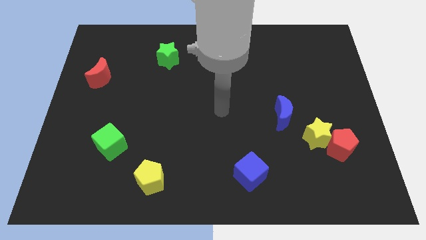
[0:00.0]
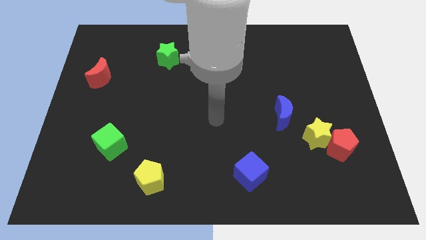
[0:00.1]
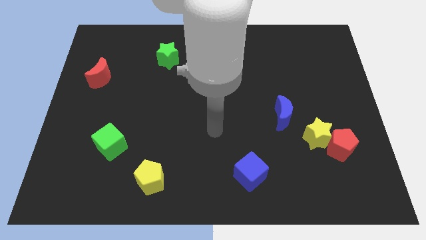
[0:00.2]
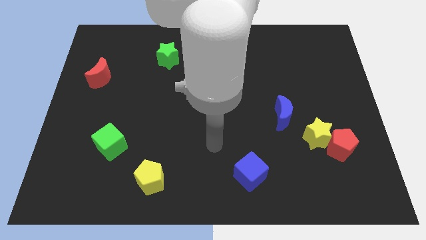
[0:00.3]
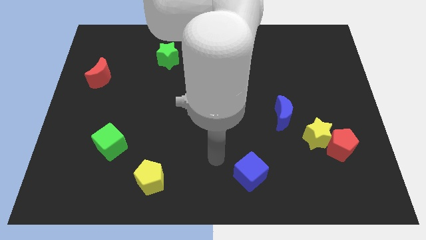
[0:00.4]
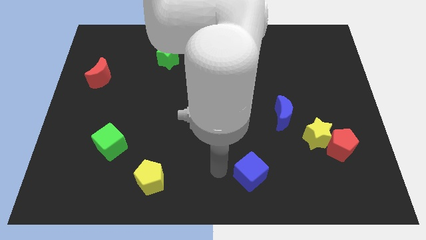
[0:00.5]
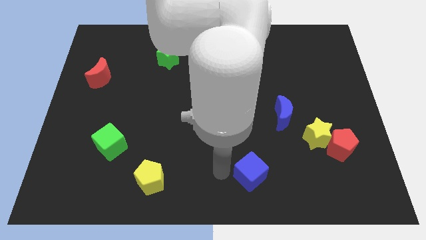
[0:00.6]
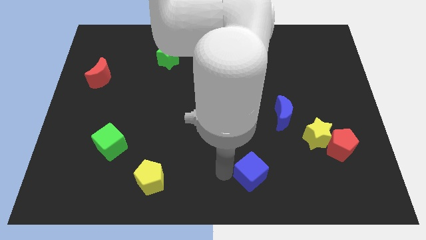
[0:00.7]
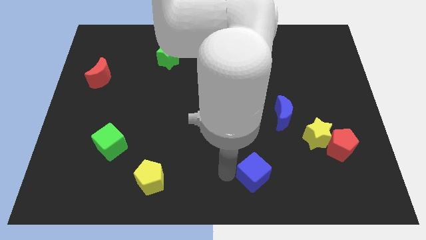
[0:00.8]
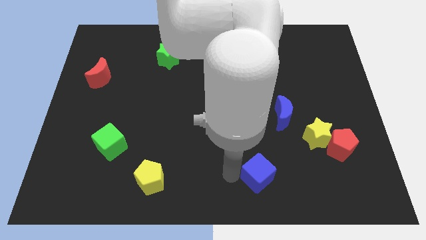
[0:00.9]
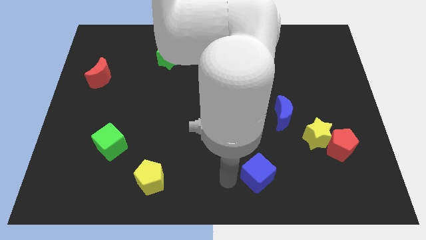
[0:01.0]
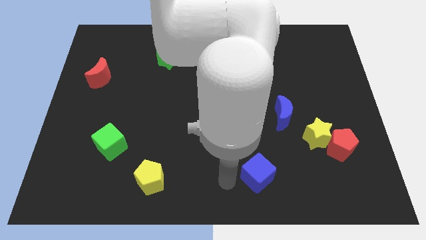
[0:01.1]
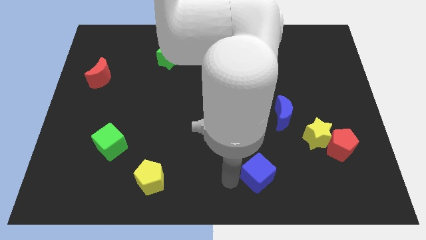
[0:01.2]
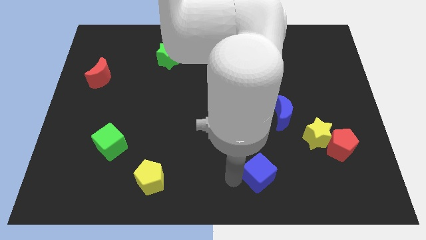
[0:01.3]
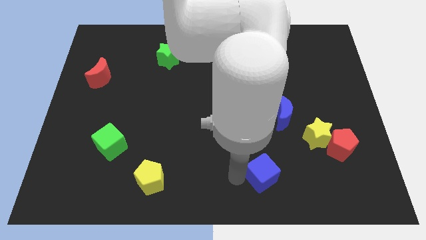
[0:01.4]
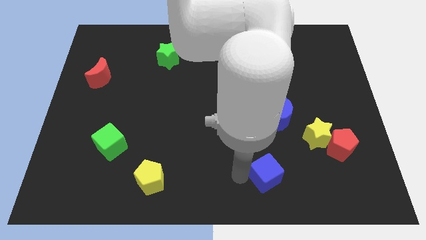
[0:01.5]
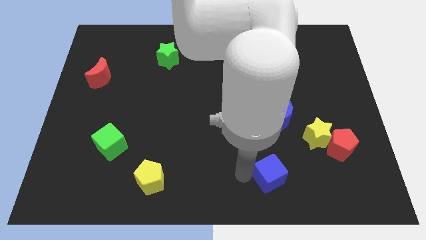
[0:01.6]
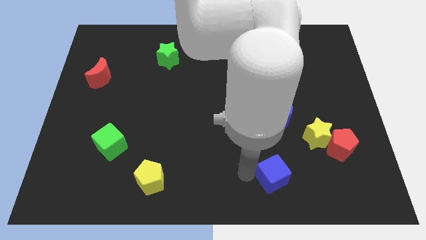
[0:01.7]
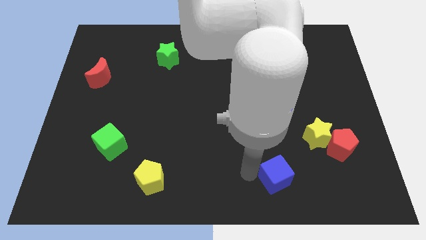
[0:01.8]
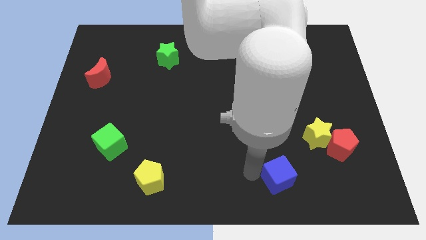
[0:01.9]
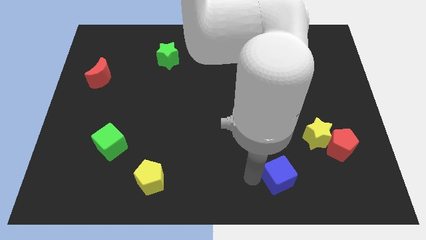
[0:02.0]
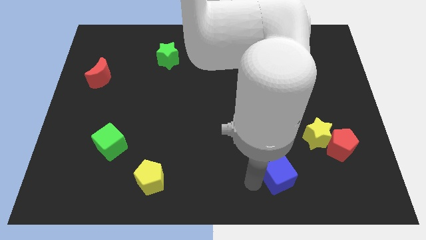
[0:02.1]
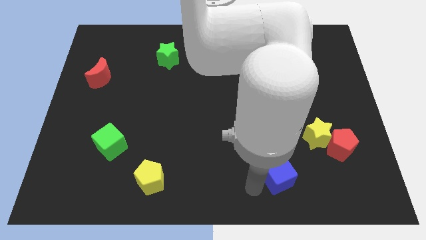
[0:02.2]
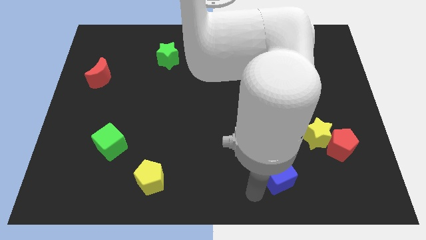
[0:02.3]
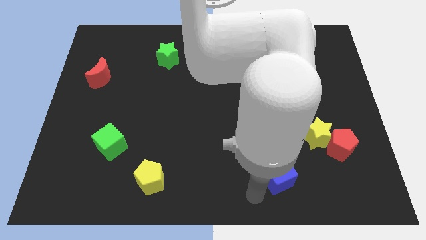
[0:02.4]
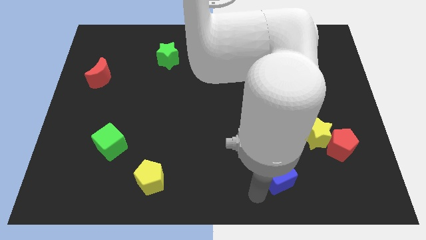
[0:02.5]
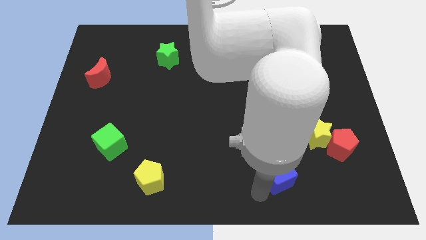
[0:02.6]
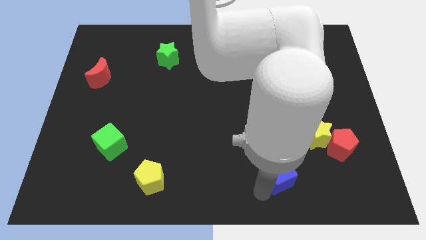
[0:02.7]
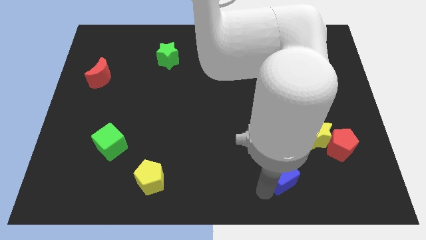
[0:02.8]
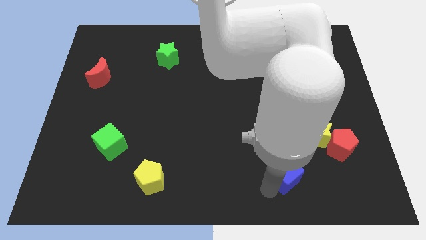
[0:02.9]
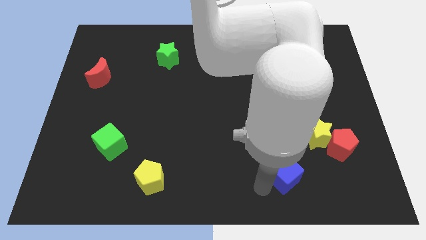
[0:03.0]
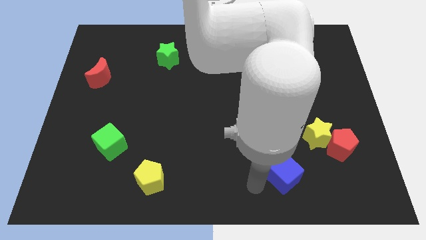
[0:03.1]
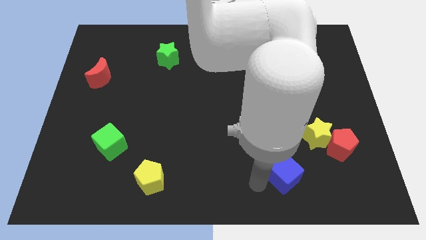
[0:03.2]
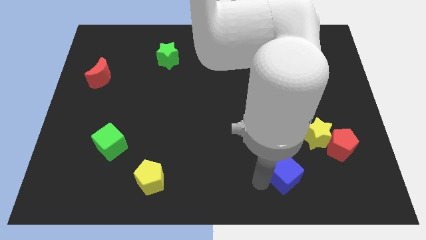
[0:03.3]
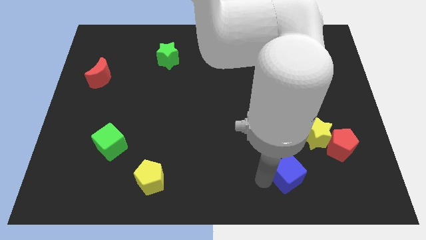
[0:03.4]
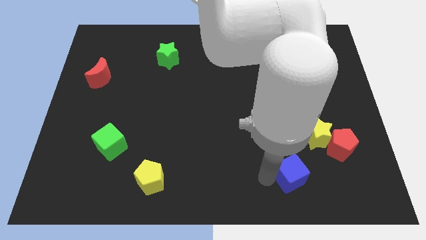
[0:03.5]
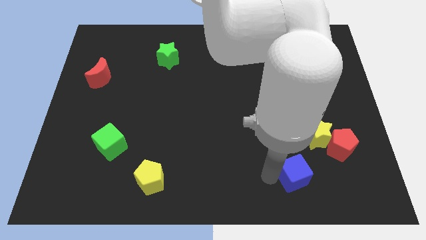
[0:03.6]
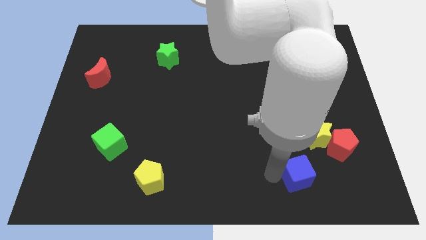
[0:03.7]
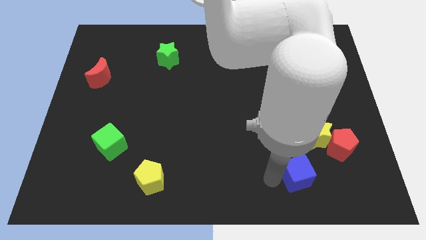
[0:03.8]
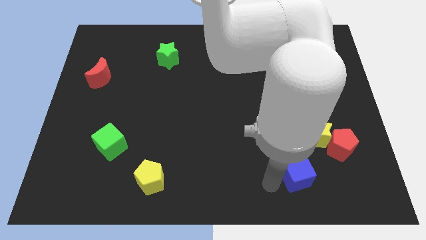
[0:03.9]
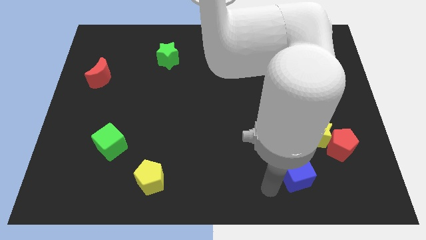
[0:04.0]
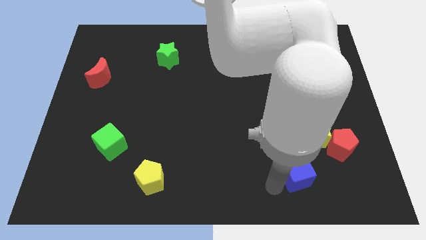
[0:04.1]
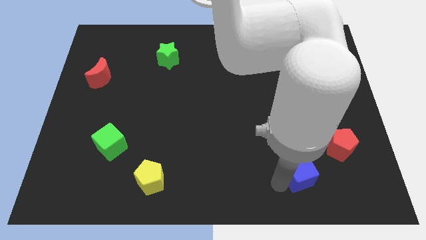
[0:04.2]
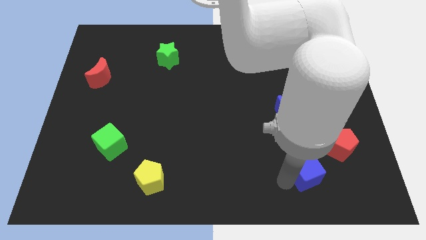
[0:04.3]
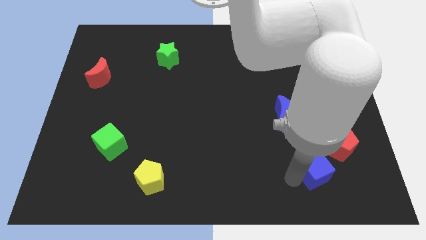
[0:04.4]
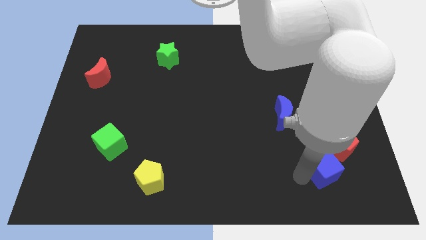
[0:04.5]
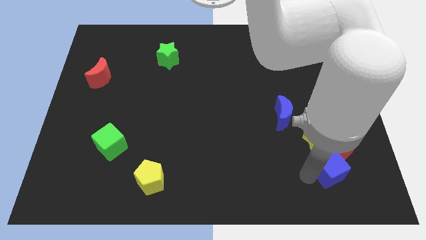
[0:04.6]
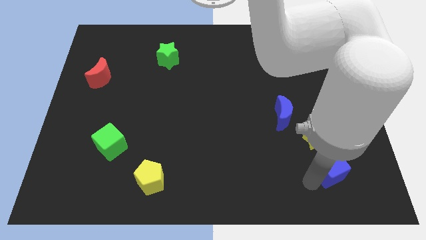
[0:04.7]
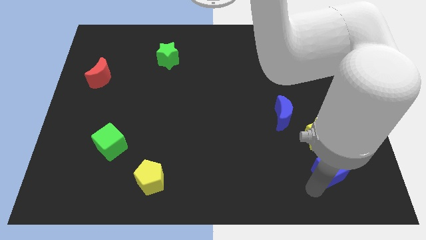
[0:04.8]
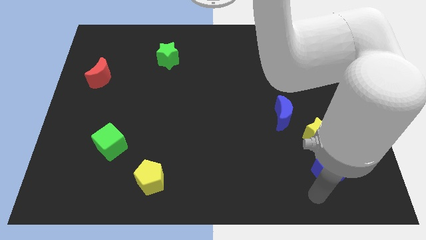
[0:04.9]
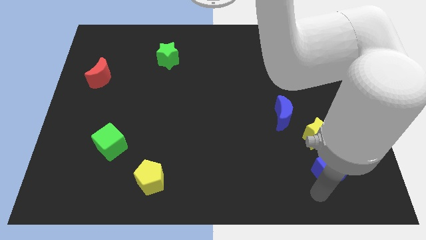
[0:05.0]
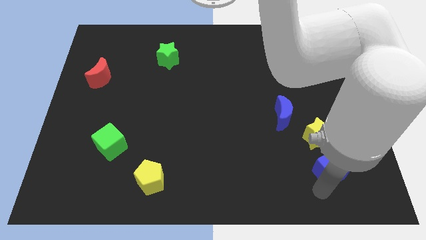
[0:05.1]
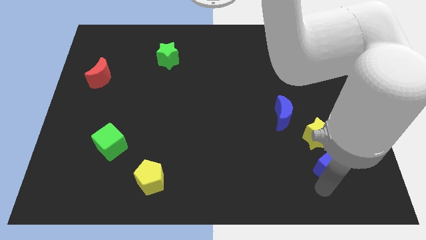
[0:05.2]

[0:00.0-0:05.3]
slide the blue cube towards the red pentagon

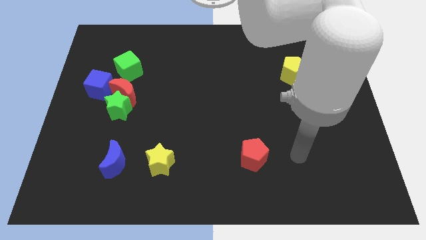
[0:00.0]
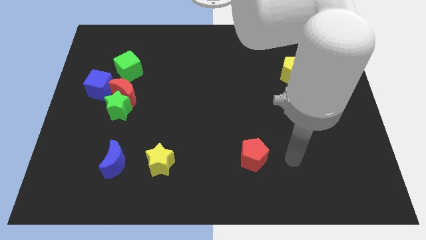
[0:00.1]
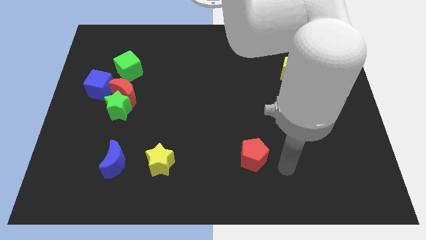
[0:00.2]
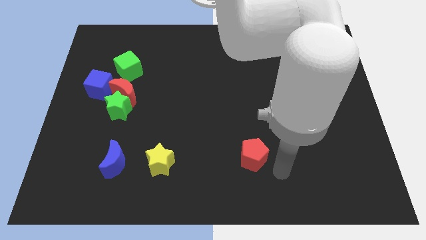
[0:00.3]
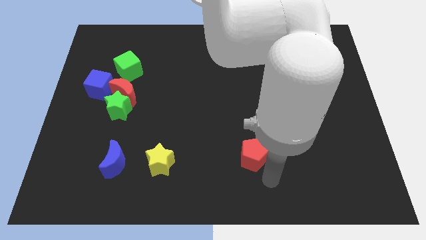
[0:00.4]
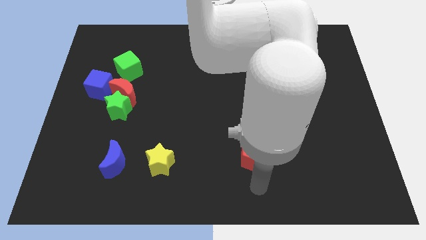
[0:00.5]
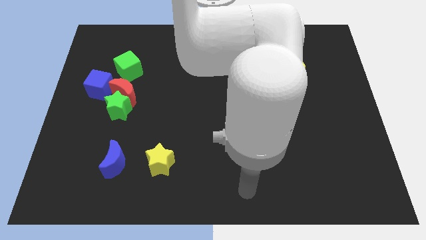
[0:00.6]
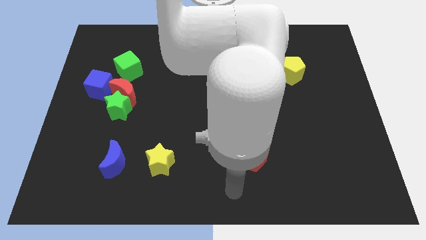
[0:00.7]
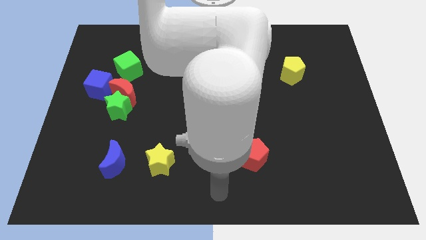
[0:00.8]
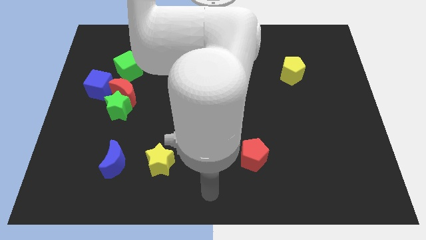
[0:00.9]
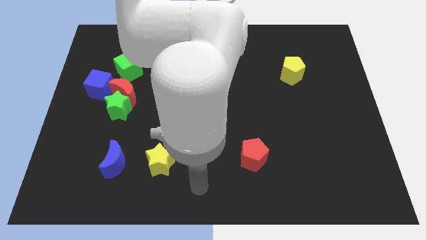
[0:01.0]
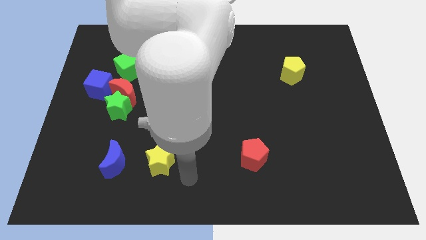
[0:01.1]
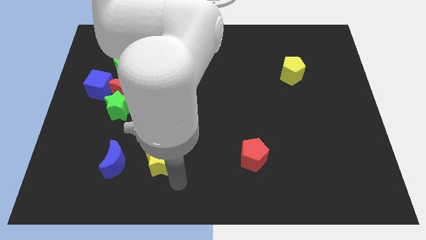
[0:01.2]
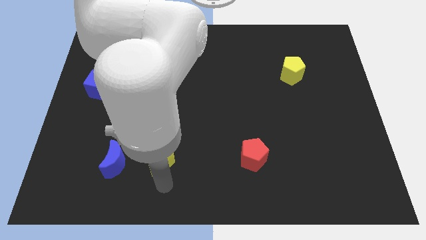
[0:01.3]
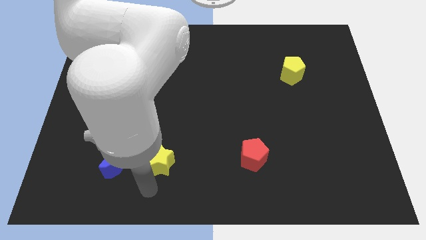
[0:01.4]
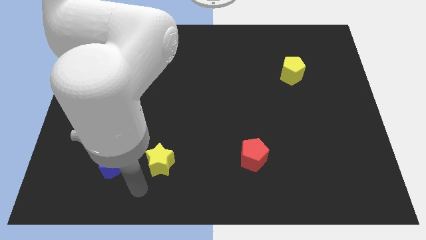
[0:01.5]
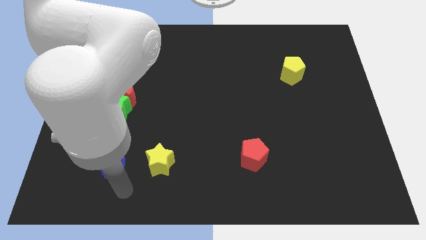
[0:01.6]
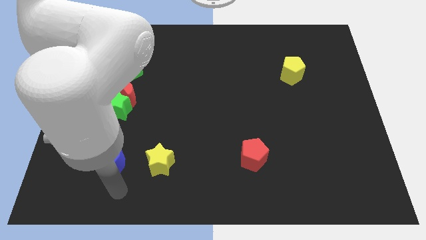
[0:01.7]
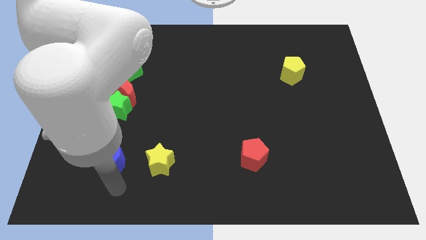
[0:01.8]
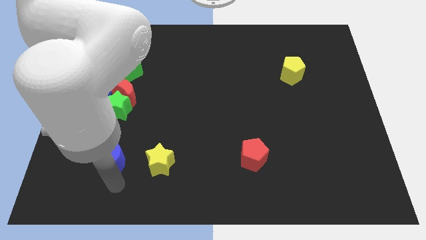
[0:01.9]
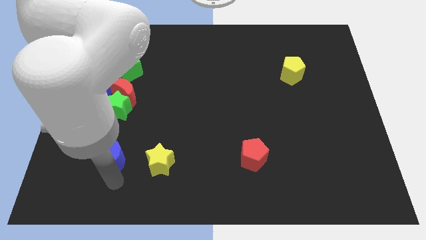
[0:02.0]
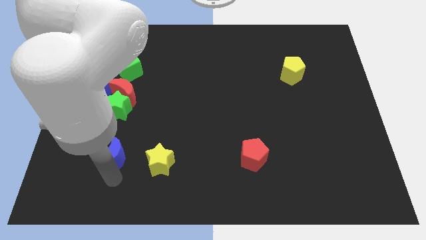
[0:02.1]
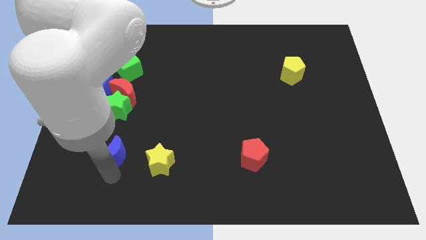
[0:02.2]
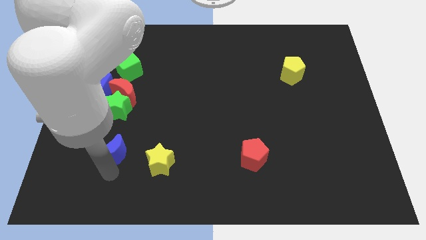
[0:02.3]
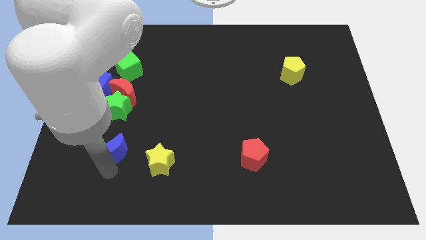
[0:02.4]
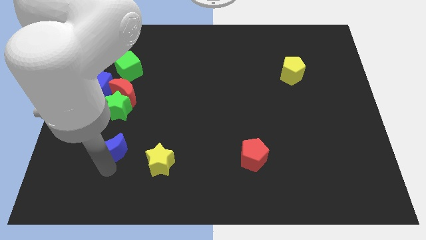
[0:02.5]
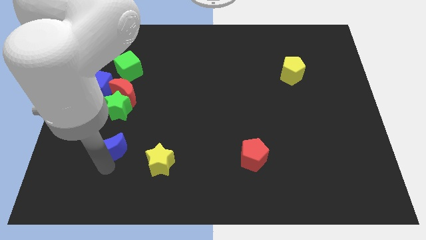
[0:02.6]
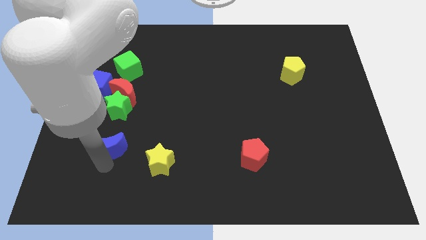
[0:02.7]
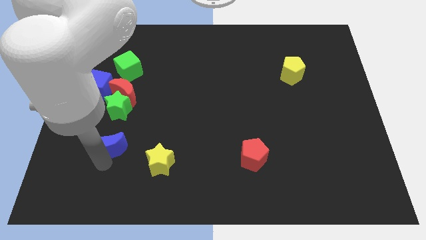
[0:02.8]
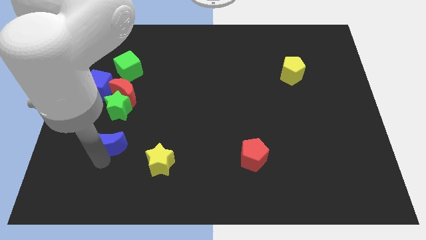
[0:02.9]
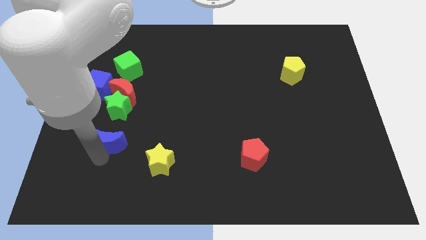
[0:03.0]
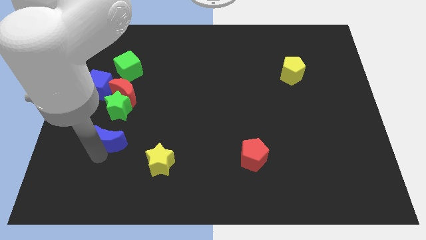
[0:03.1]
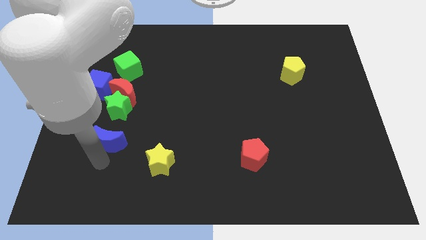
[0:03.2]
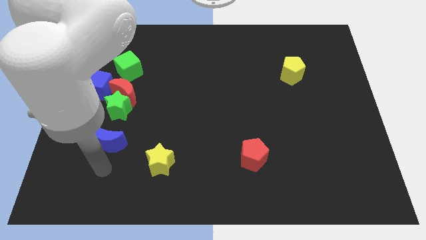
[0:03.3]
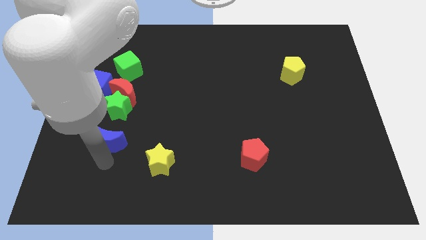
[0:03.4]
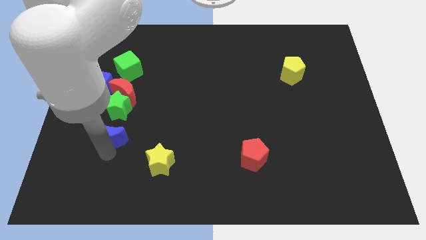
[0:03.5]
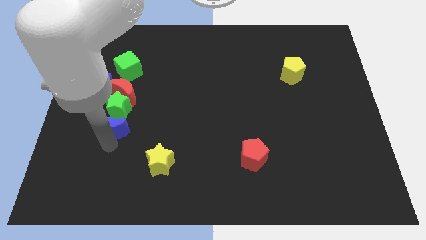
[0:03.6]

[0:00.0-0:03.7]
slide the blue moon close to the green star
